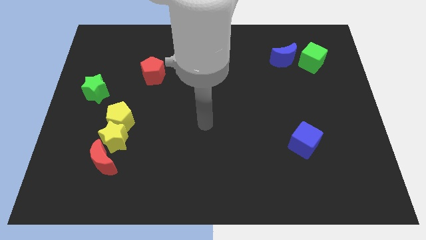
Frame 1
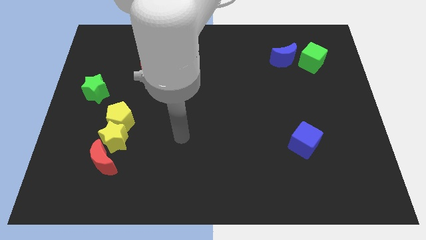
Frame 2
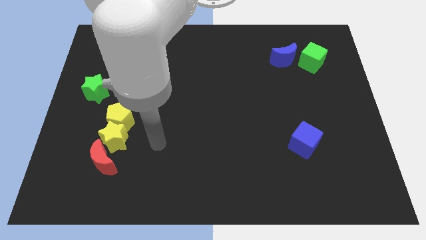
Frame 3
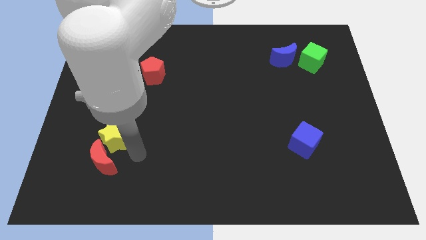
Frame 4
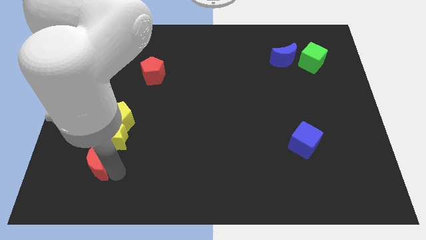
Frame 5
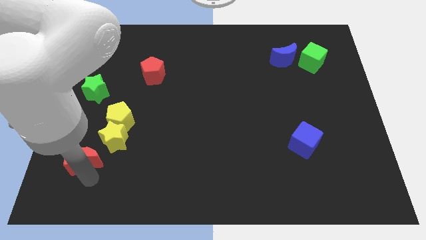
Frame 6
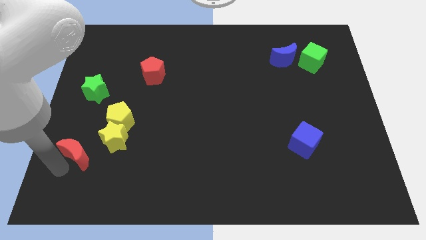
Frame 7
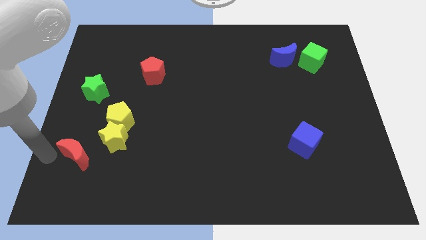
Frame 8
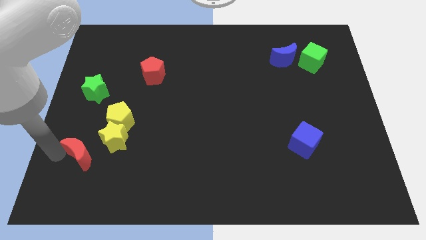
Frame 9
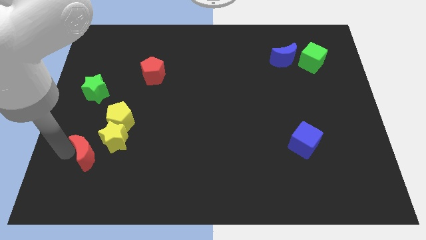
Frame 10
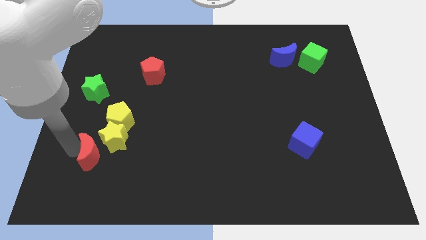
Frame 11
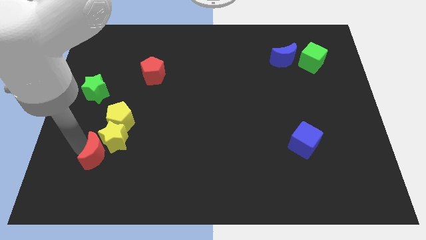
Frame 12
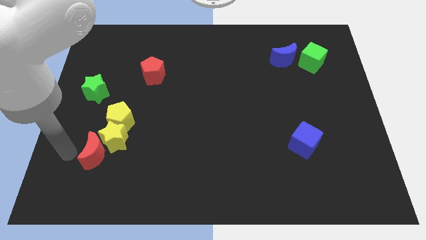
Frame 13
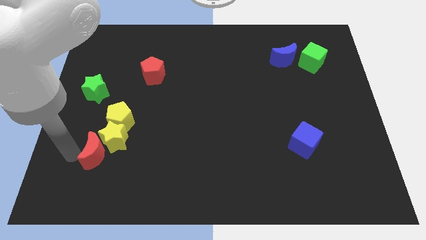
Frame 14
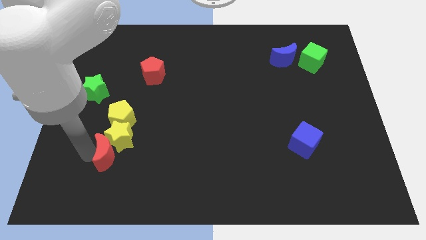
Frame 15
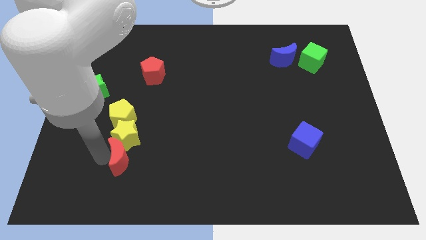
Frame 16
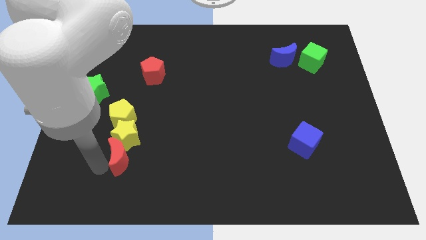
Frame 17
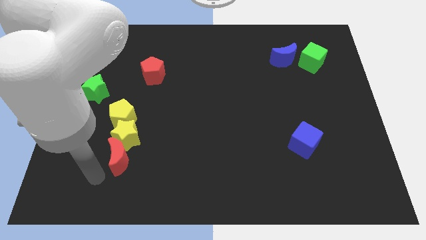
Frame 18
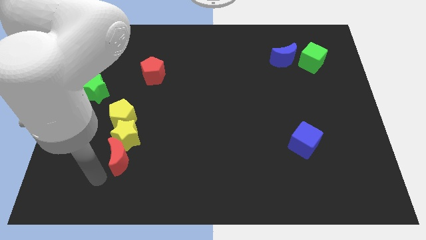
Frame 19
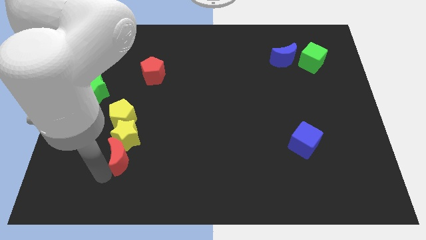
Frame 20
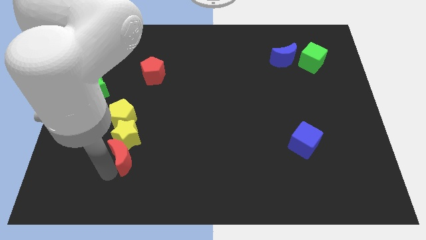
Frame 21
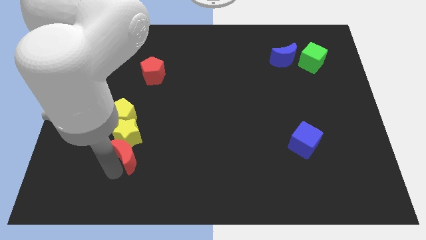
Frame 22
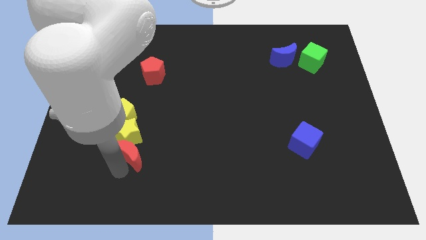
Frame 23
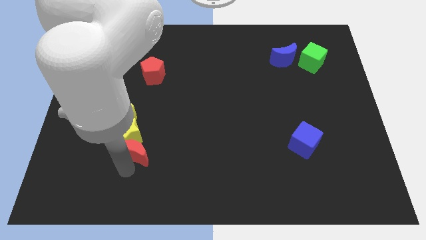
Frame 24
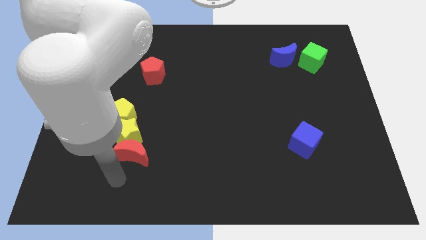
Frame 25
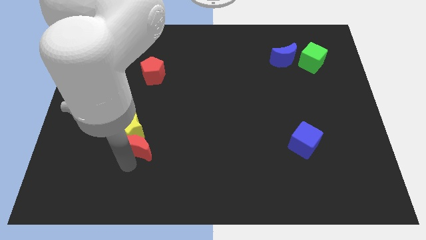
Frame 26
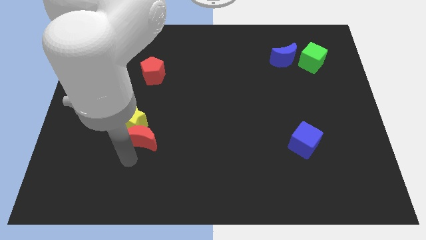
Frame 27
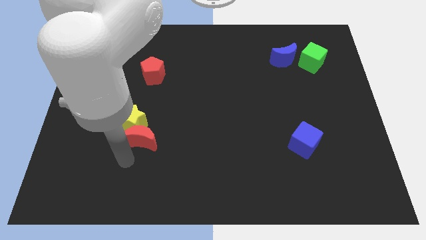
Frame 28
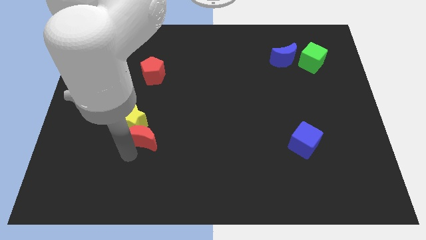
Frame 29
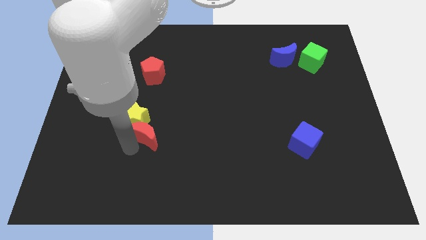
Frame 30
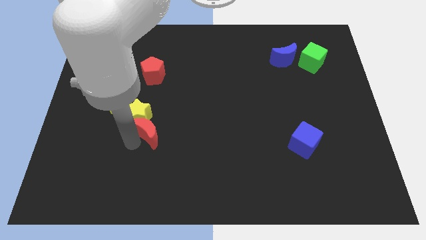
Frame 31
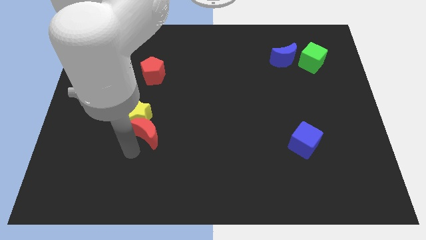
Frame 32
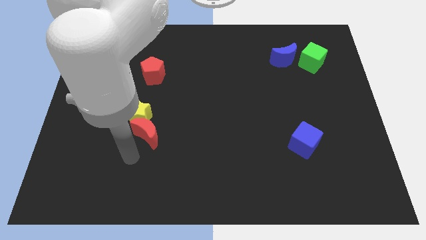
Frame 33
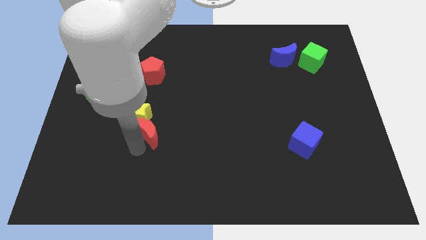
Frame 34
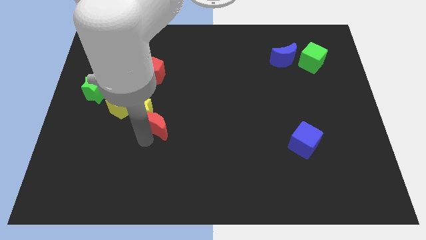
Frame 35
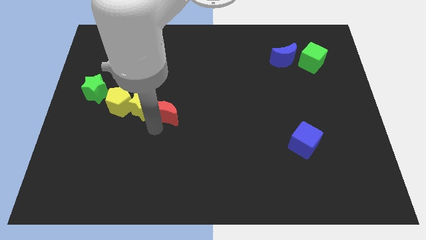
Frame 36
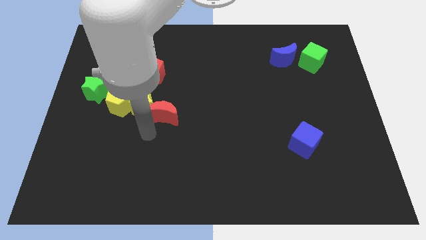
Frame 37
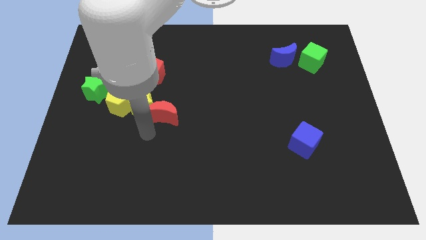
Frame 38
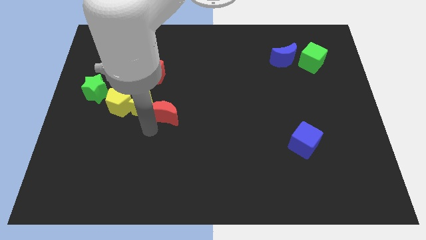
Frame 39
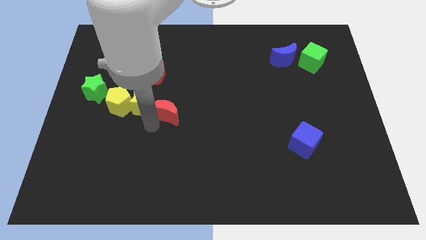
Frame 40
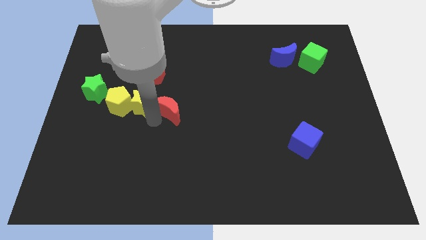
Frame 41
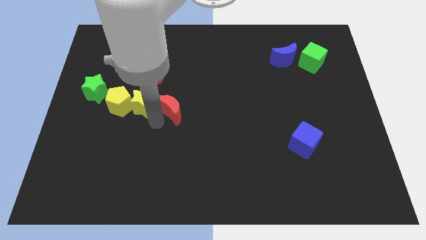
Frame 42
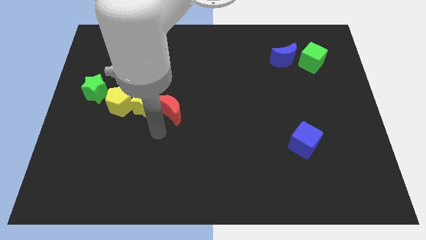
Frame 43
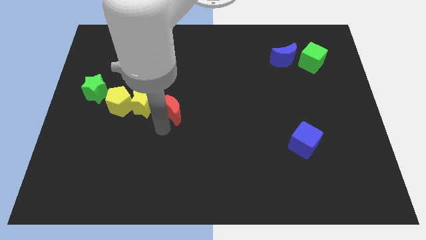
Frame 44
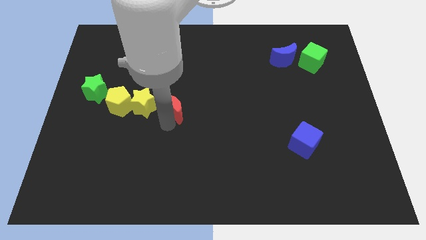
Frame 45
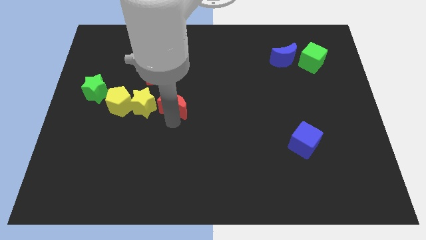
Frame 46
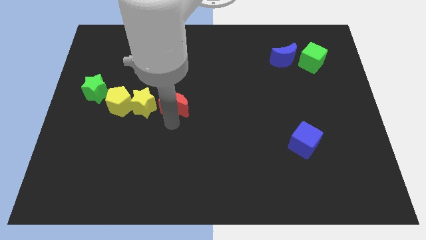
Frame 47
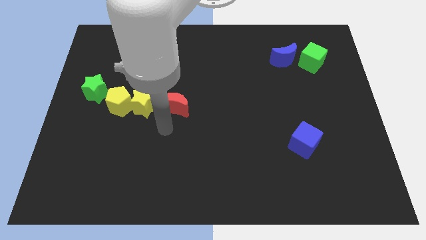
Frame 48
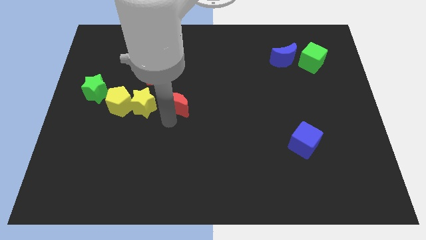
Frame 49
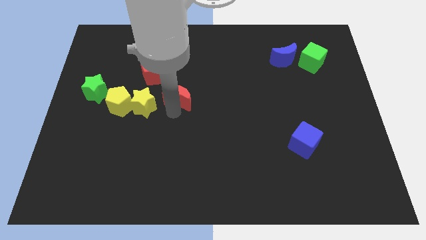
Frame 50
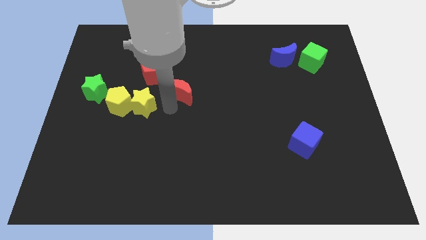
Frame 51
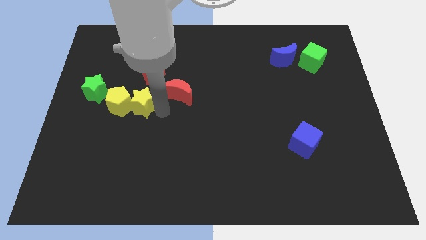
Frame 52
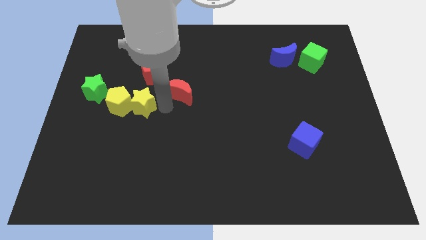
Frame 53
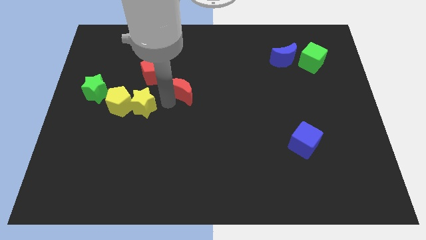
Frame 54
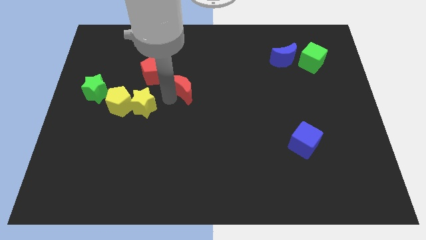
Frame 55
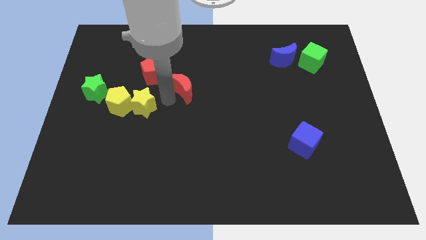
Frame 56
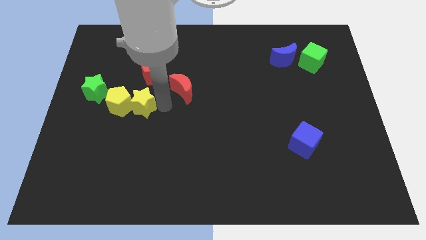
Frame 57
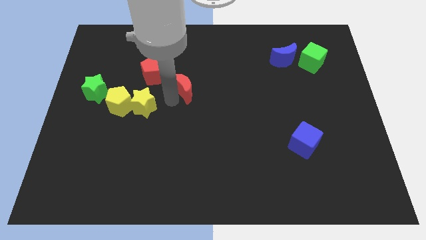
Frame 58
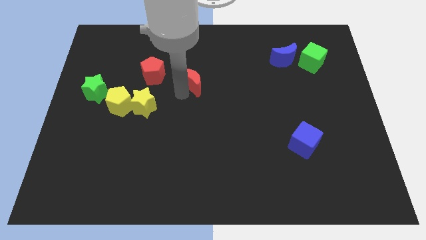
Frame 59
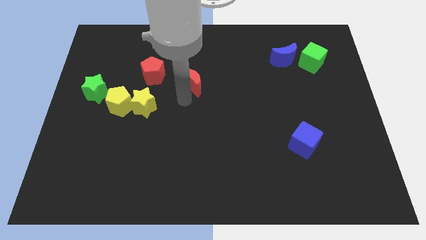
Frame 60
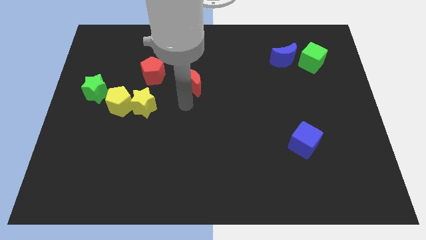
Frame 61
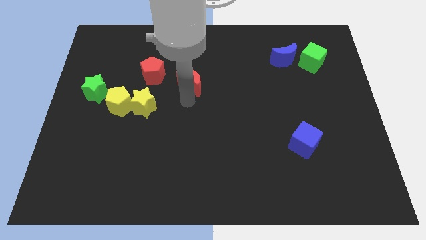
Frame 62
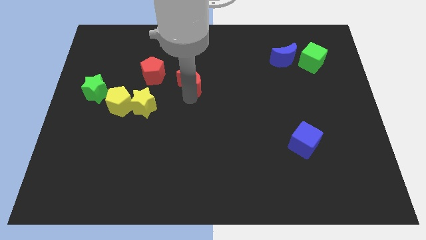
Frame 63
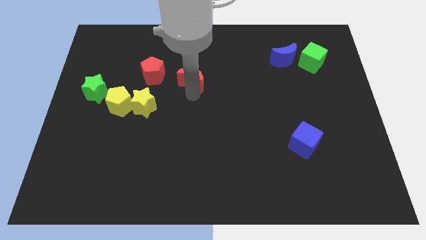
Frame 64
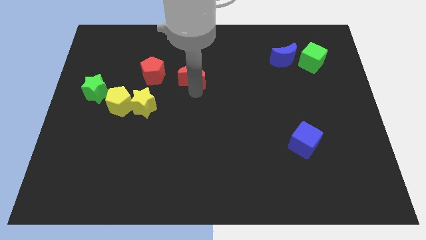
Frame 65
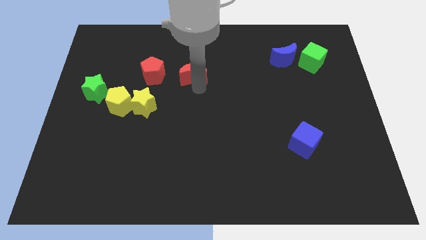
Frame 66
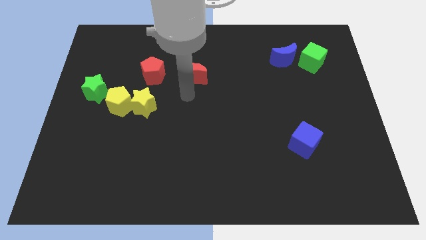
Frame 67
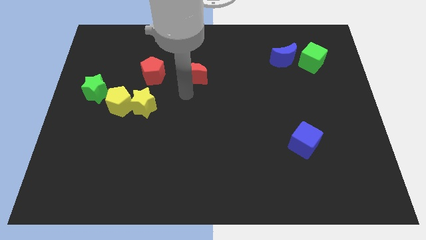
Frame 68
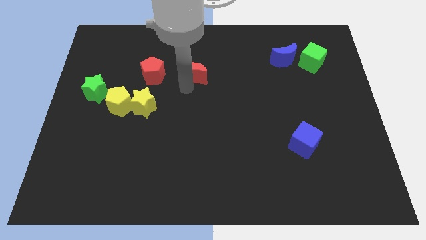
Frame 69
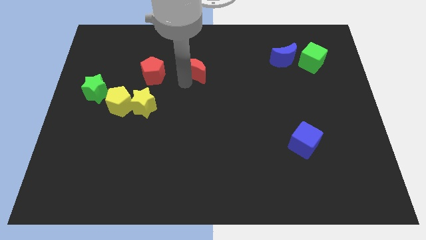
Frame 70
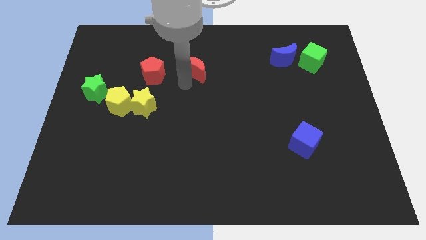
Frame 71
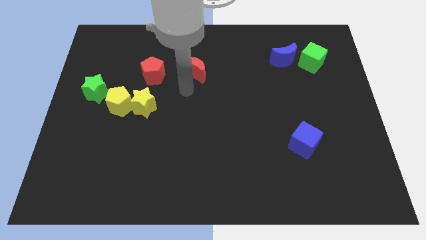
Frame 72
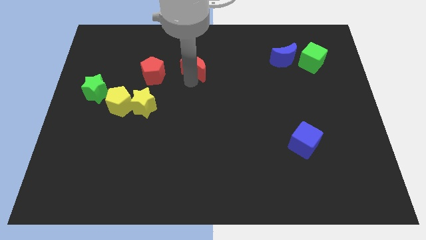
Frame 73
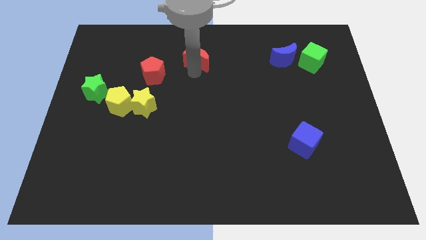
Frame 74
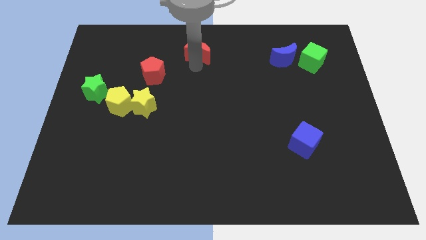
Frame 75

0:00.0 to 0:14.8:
put the red moon to the towards your base

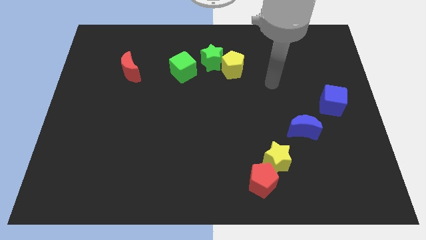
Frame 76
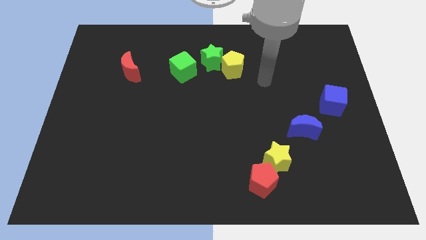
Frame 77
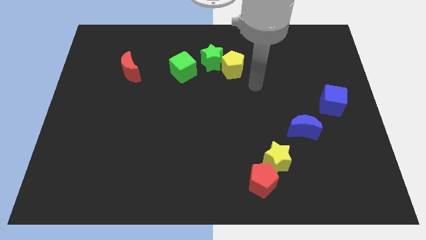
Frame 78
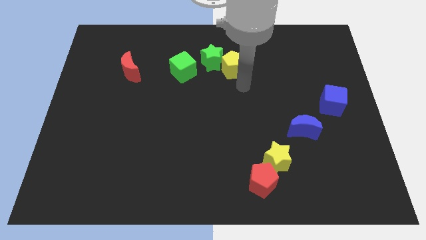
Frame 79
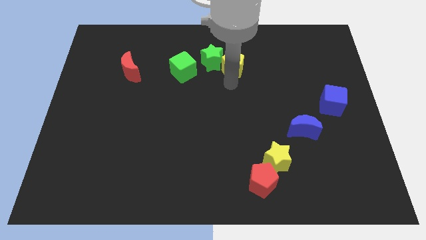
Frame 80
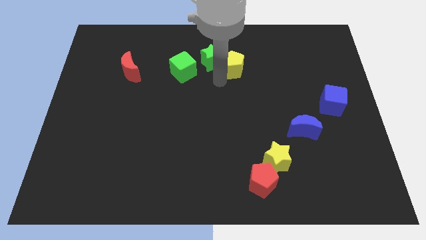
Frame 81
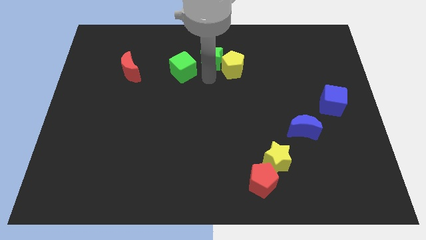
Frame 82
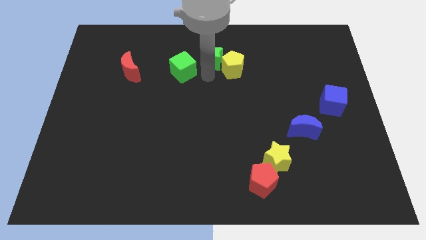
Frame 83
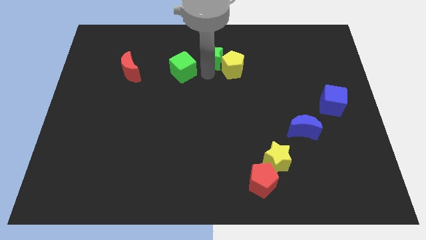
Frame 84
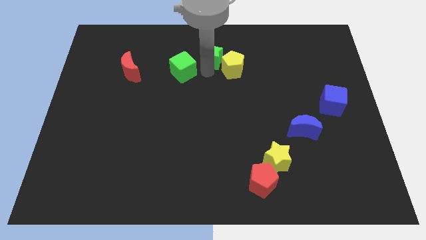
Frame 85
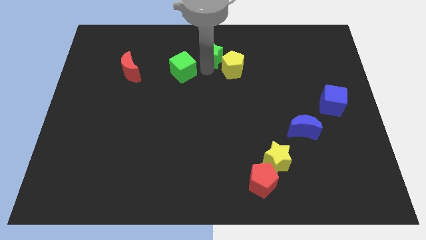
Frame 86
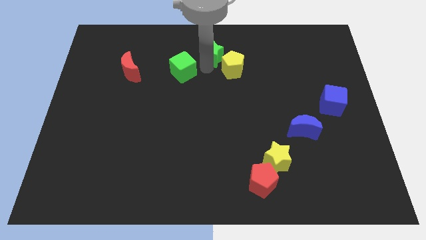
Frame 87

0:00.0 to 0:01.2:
put the green star to the top side
